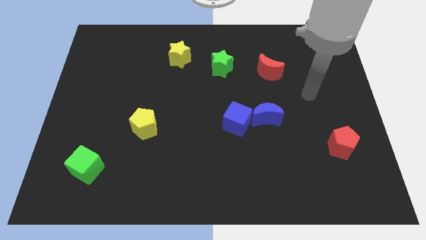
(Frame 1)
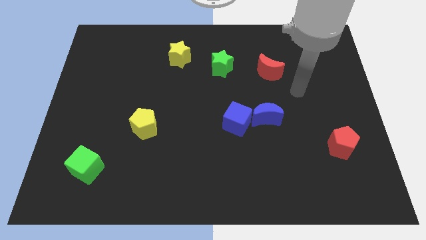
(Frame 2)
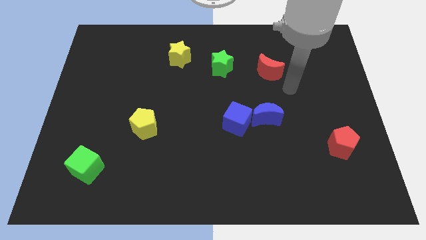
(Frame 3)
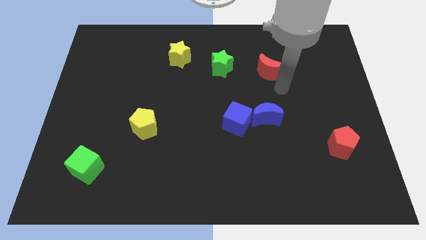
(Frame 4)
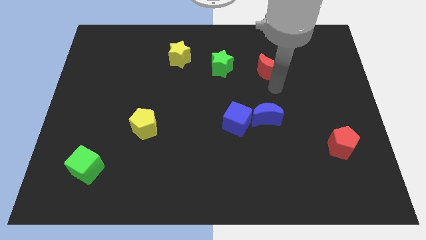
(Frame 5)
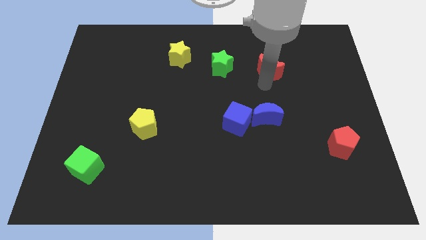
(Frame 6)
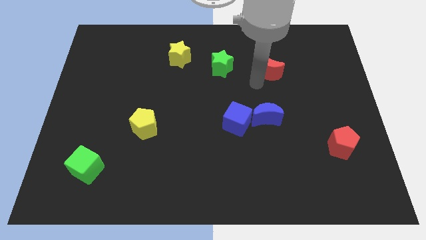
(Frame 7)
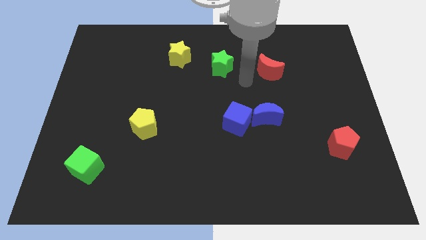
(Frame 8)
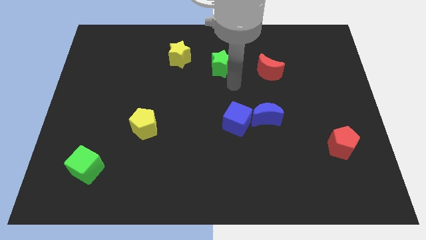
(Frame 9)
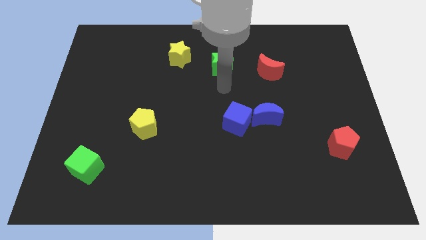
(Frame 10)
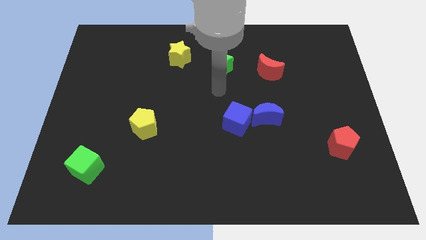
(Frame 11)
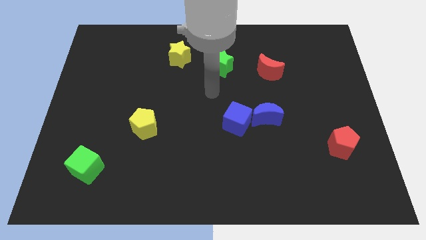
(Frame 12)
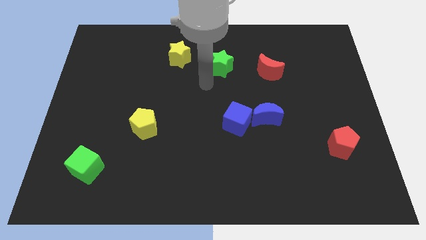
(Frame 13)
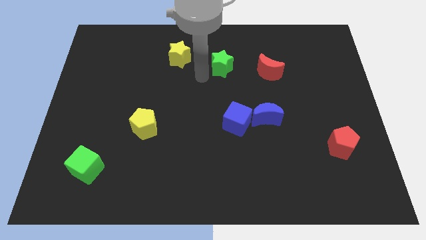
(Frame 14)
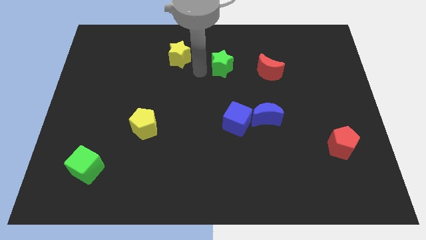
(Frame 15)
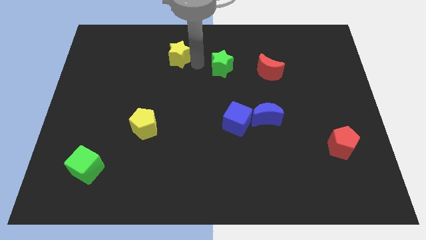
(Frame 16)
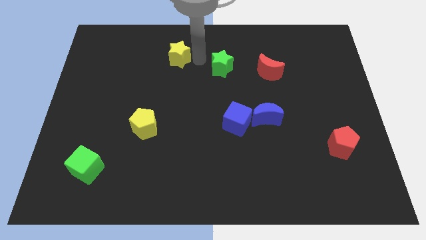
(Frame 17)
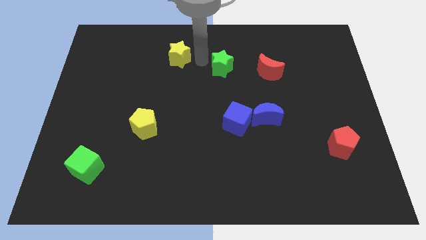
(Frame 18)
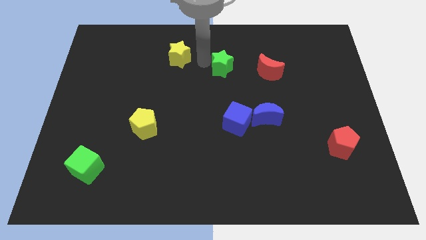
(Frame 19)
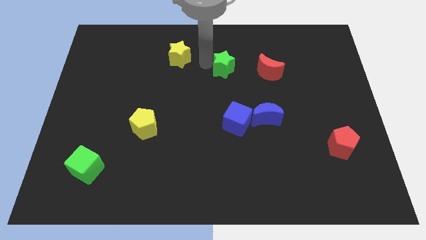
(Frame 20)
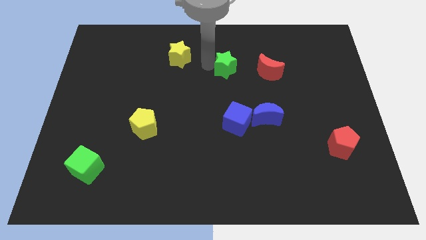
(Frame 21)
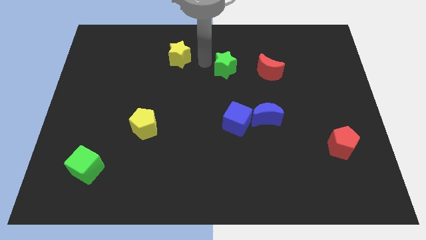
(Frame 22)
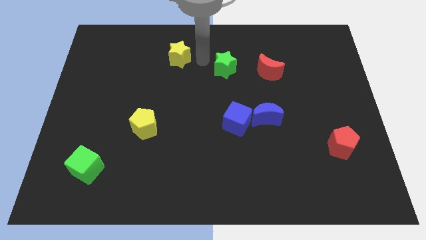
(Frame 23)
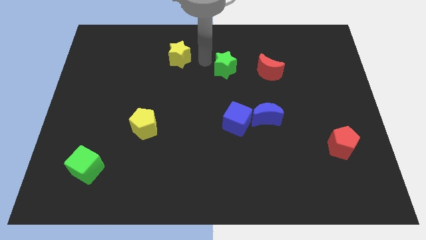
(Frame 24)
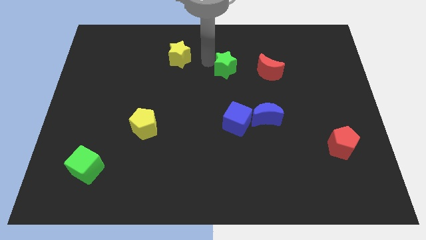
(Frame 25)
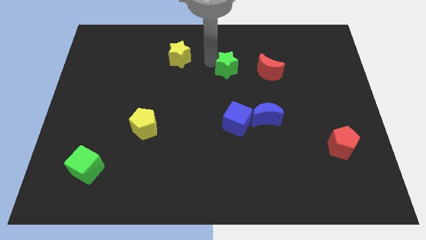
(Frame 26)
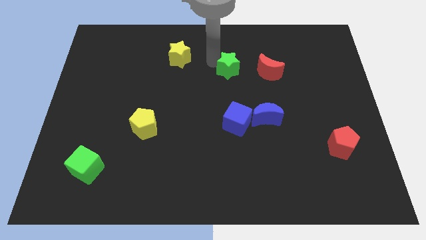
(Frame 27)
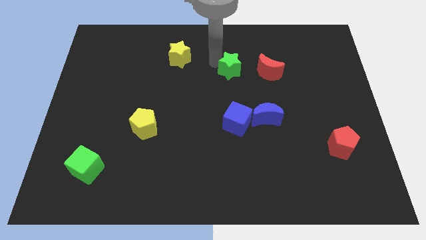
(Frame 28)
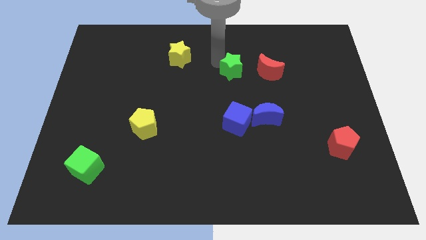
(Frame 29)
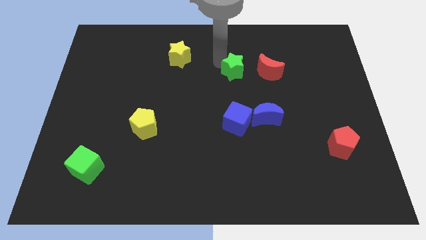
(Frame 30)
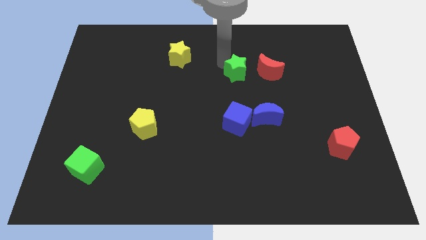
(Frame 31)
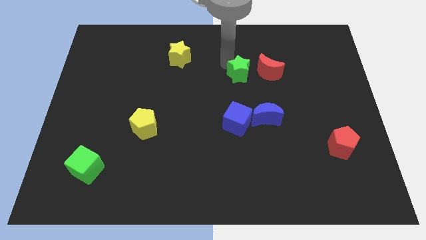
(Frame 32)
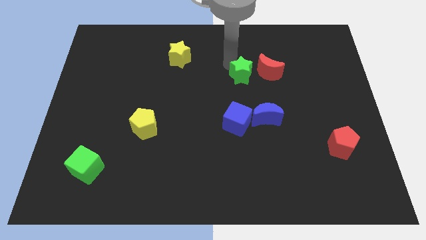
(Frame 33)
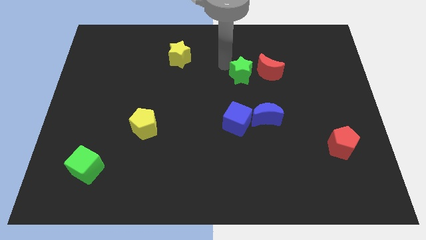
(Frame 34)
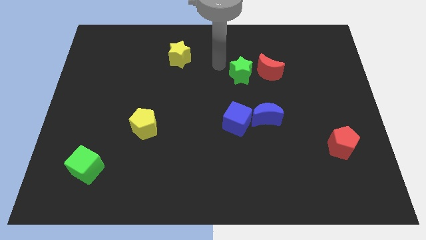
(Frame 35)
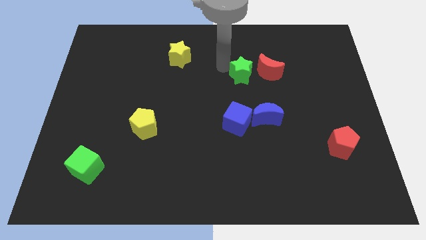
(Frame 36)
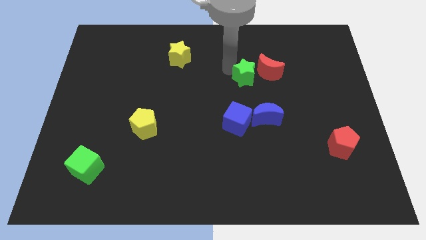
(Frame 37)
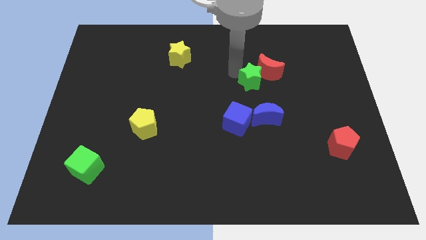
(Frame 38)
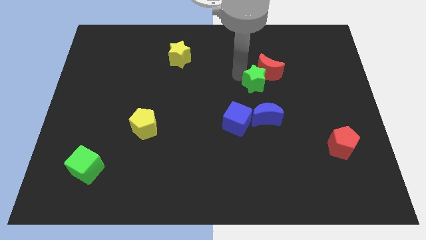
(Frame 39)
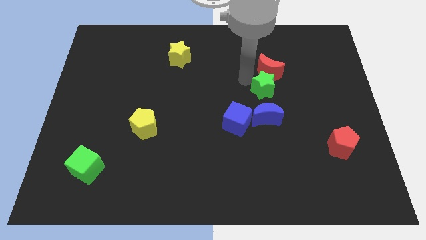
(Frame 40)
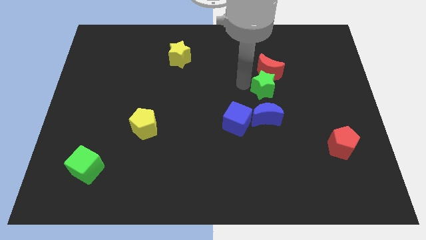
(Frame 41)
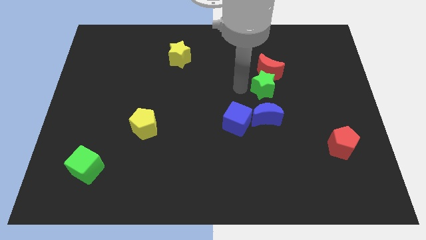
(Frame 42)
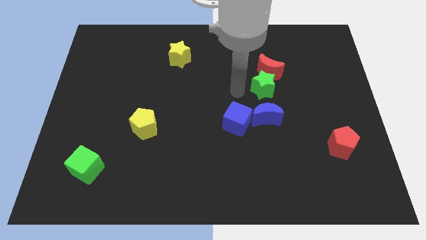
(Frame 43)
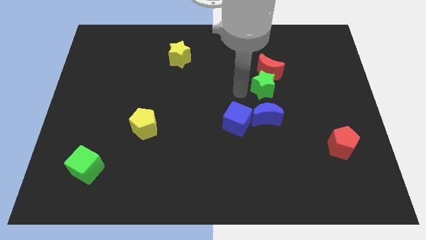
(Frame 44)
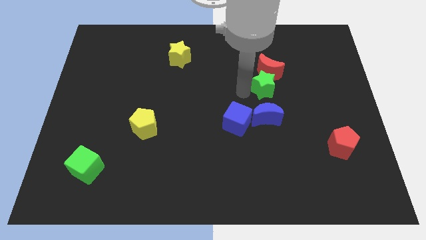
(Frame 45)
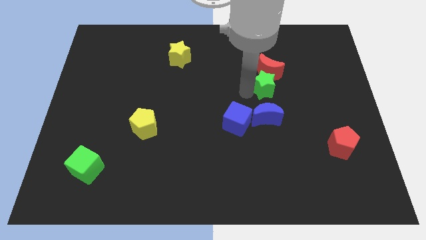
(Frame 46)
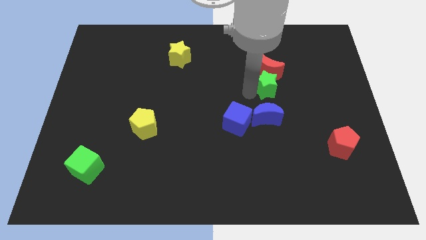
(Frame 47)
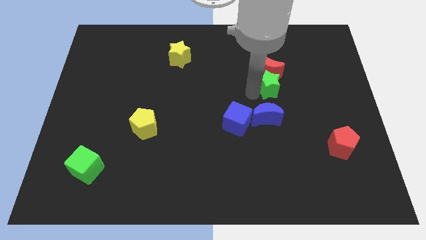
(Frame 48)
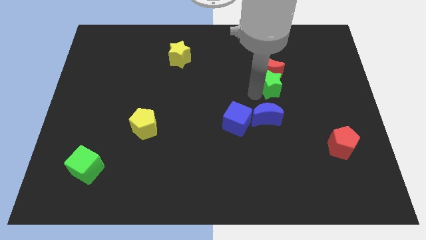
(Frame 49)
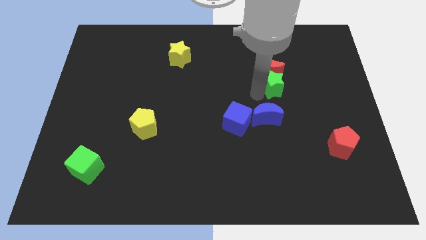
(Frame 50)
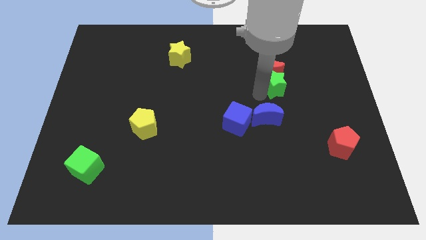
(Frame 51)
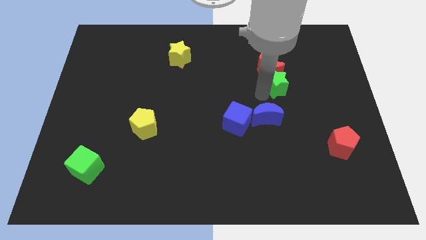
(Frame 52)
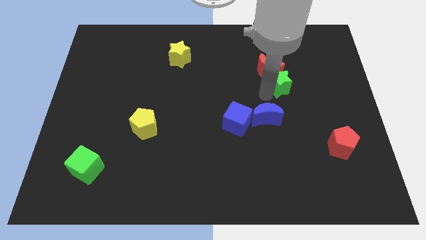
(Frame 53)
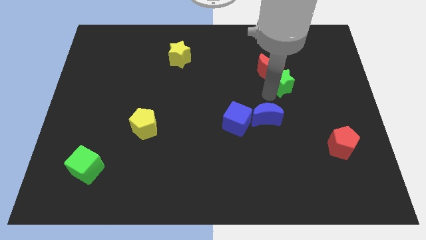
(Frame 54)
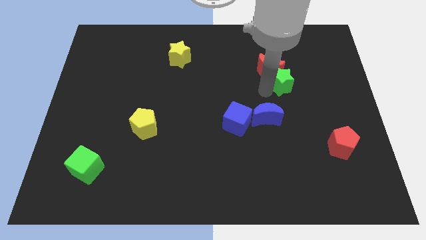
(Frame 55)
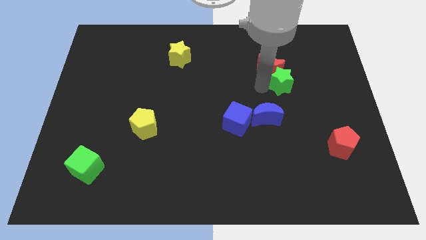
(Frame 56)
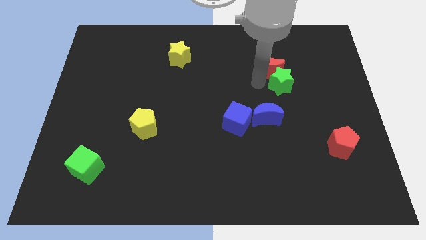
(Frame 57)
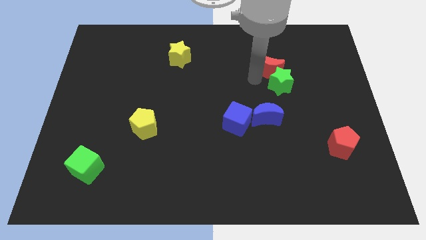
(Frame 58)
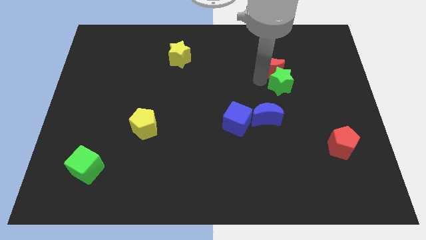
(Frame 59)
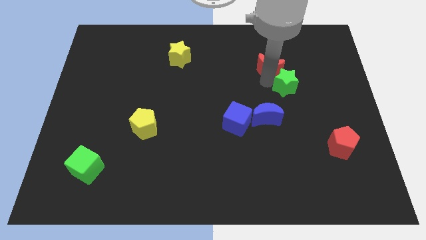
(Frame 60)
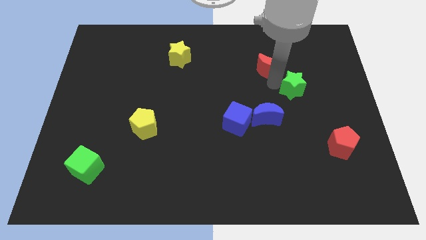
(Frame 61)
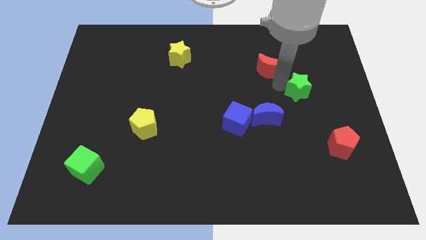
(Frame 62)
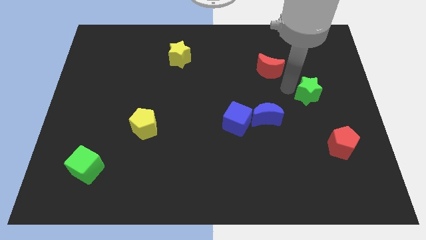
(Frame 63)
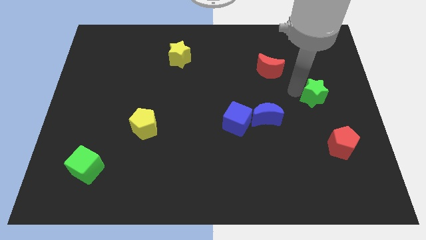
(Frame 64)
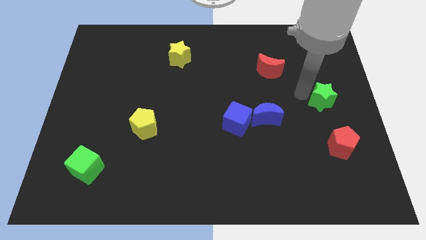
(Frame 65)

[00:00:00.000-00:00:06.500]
push the green star to the center right
